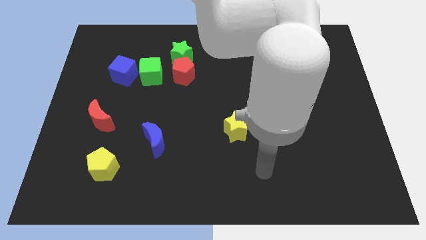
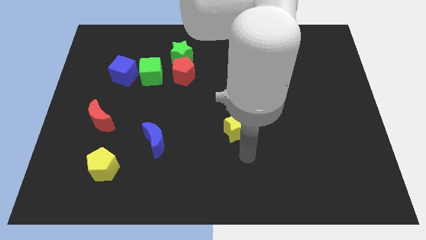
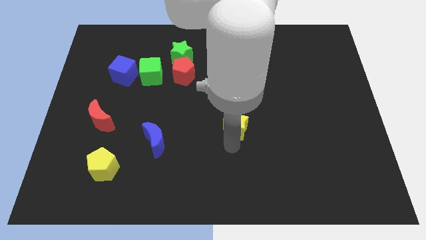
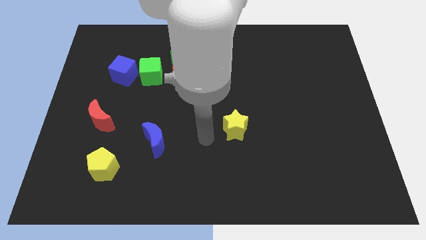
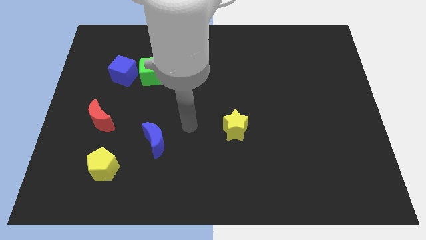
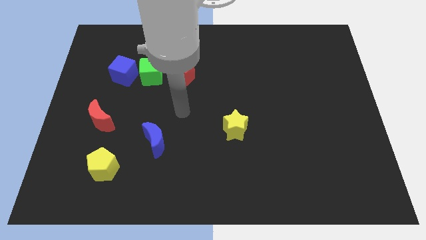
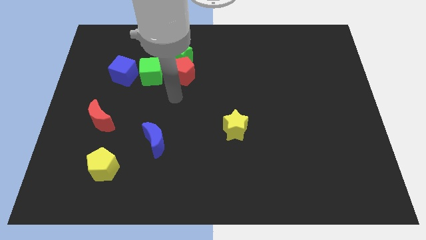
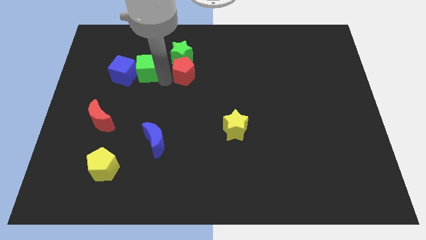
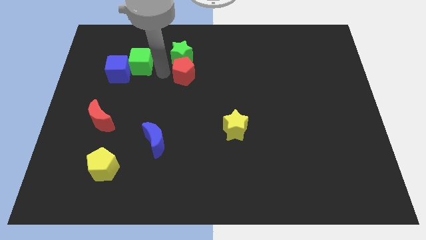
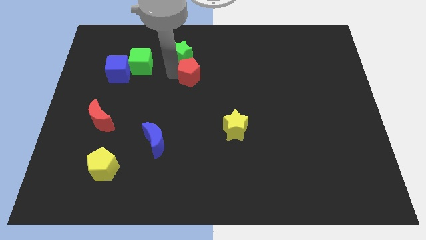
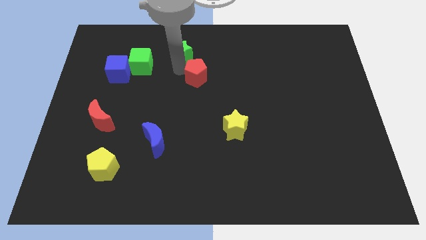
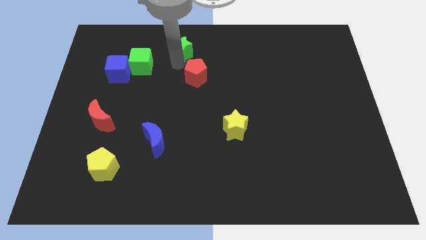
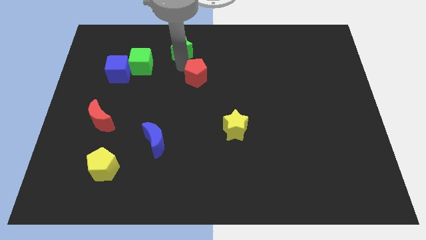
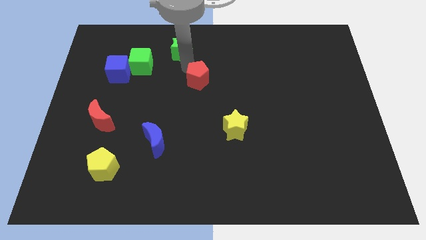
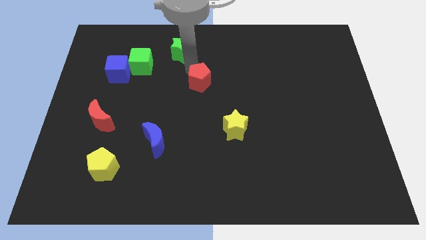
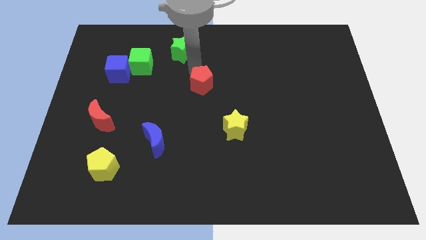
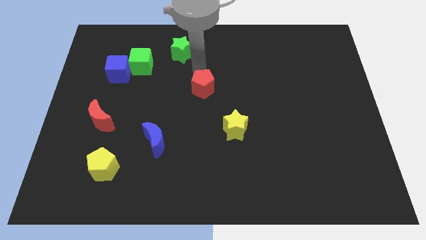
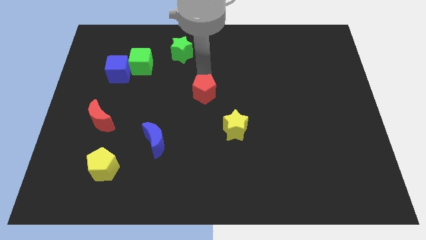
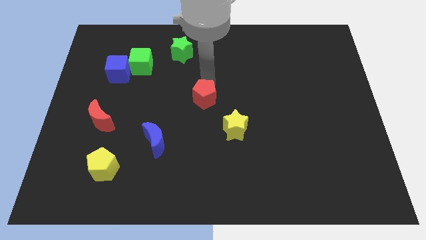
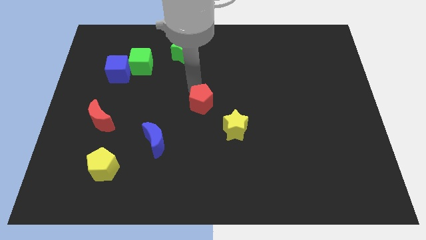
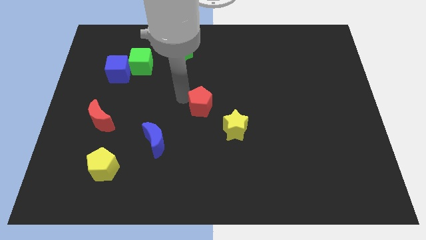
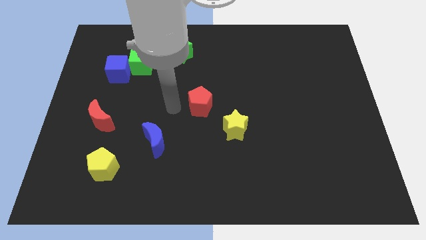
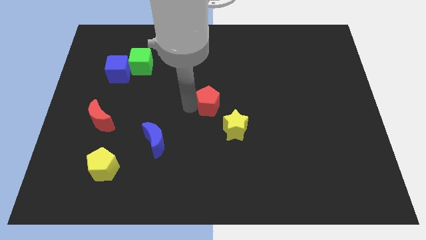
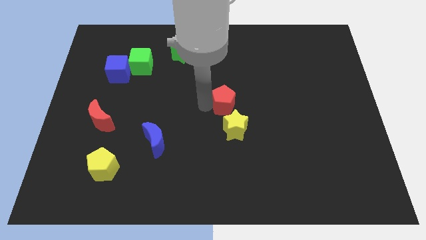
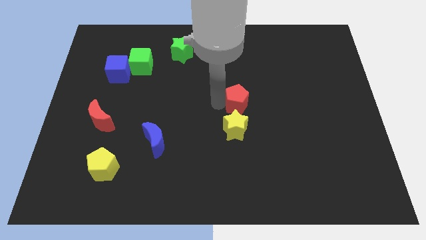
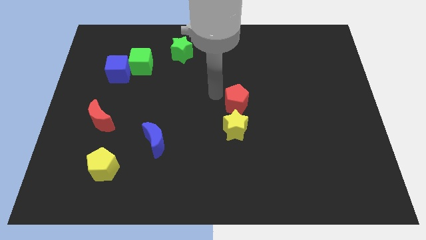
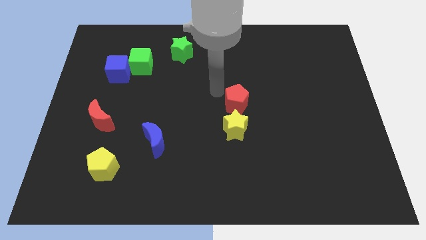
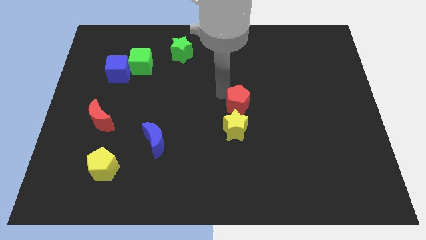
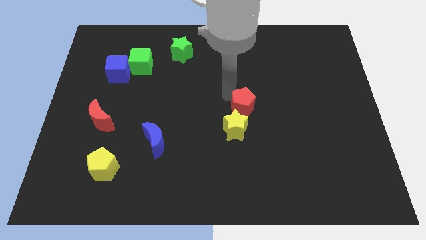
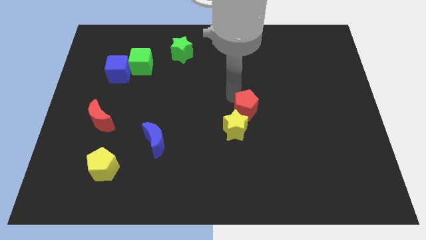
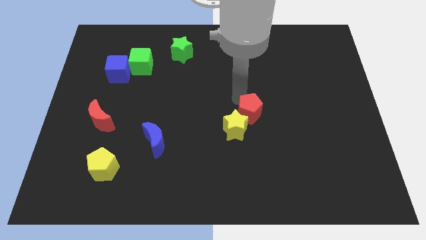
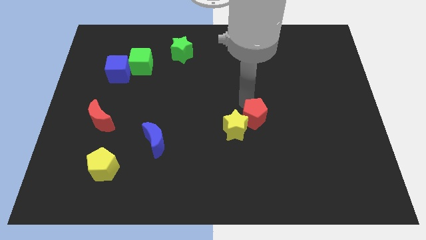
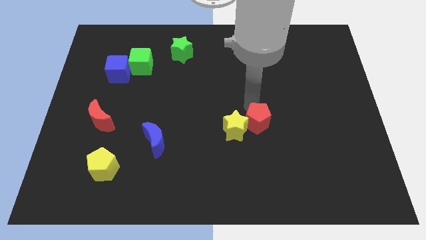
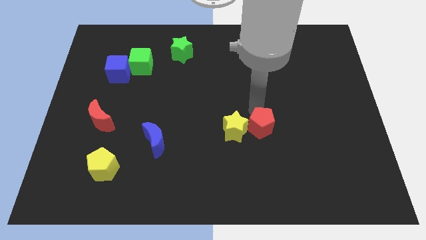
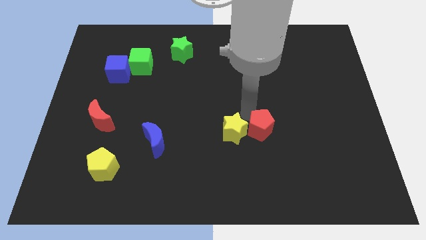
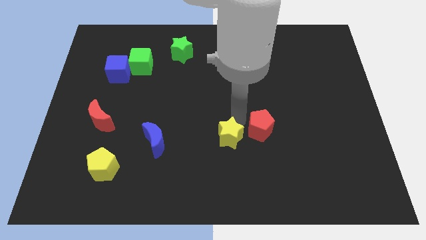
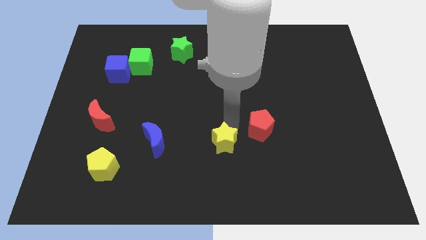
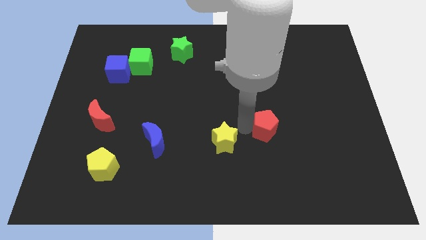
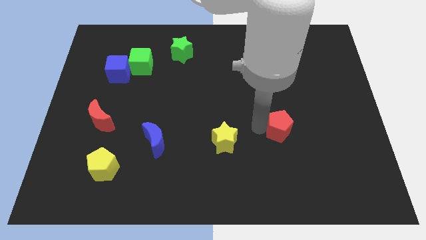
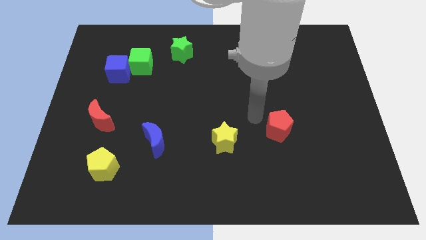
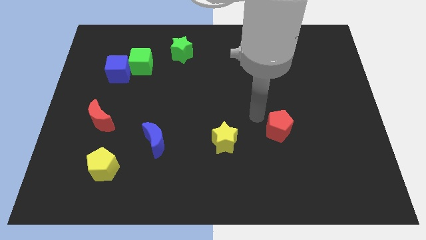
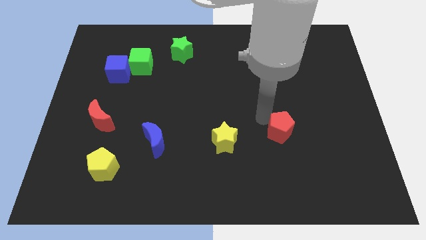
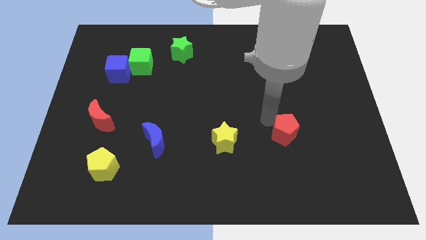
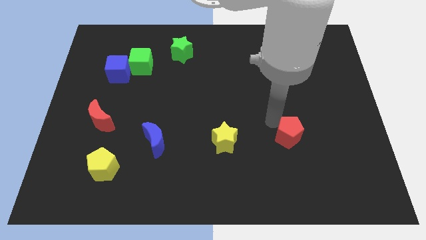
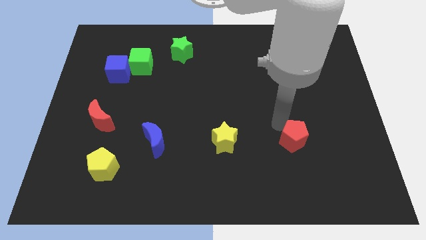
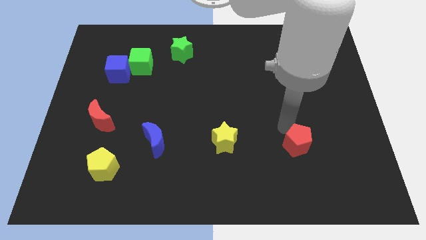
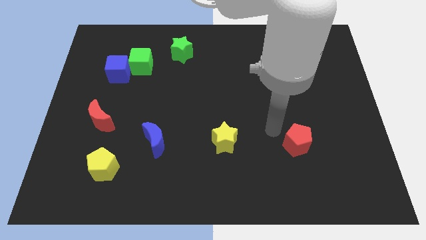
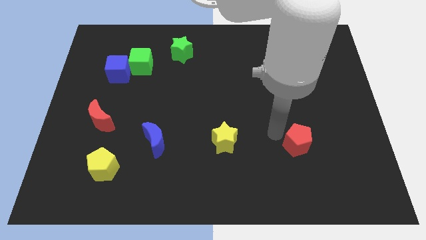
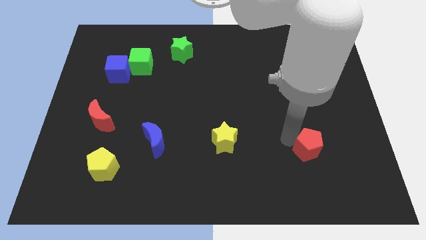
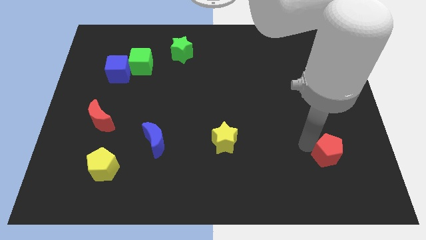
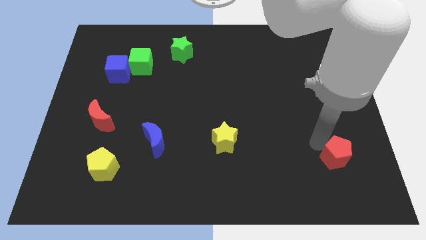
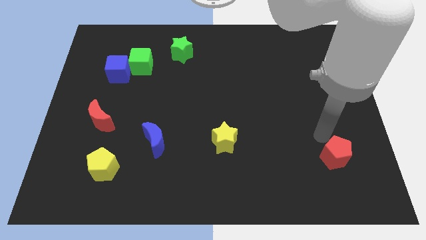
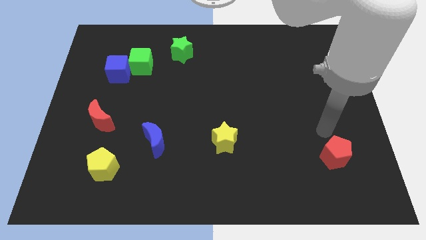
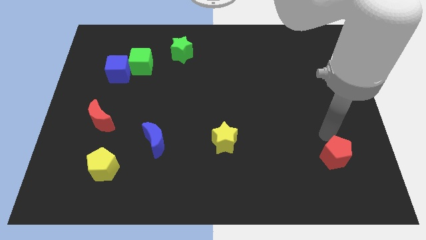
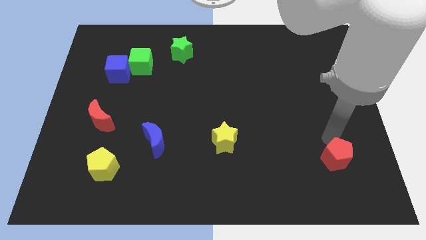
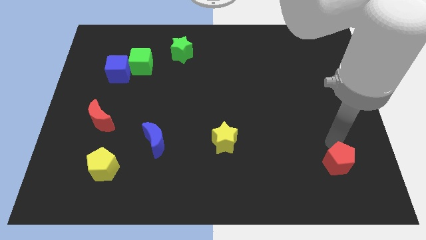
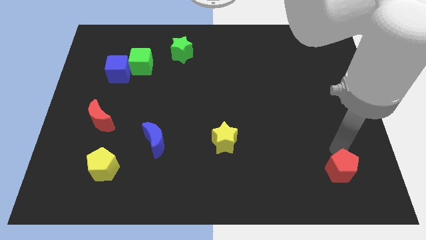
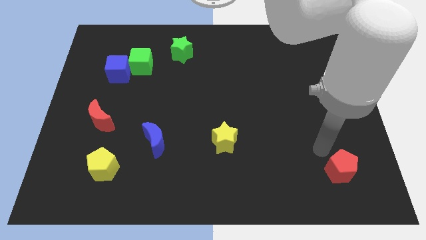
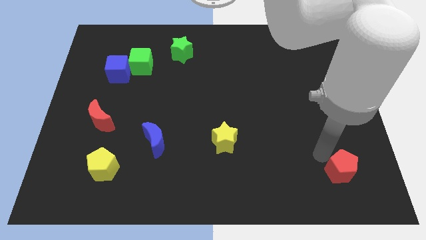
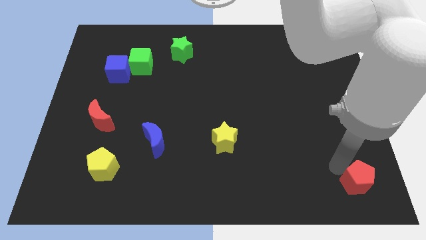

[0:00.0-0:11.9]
move the red pentagon to the bottom right corner
